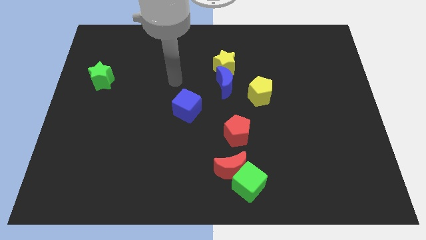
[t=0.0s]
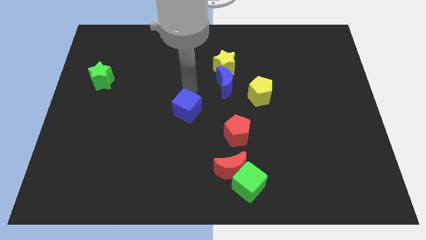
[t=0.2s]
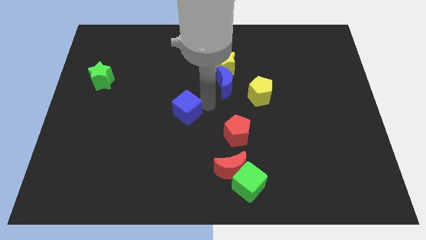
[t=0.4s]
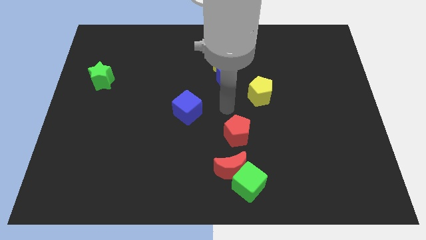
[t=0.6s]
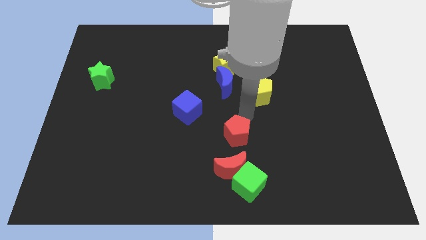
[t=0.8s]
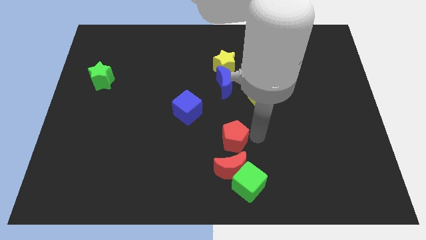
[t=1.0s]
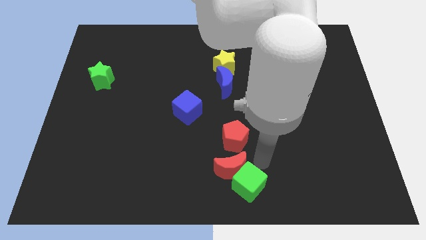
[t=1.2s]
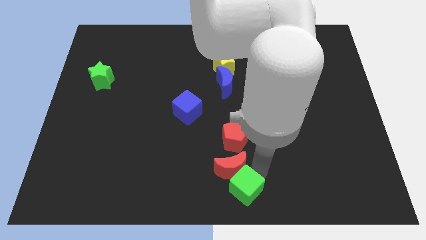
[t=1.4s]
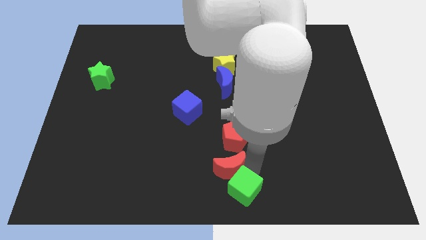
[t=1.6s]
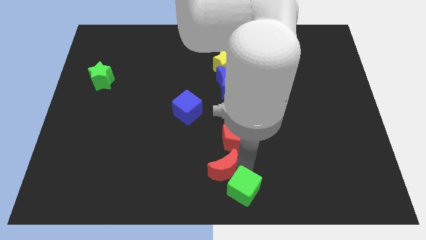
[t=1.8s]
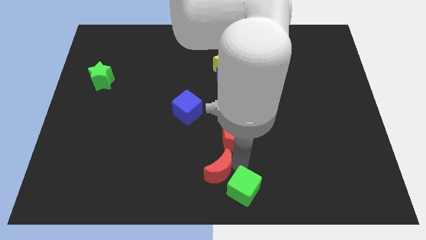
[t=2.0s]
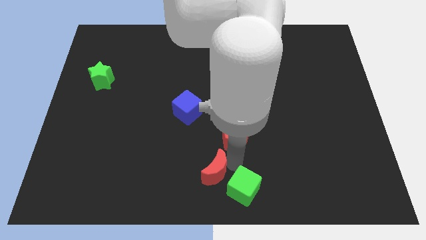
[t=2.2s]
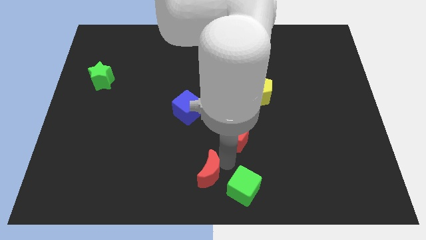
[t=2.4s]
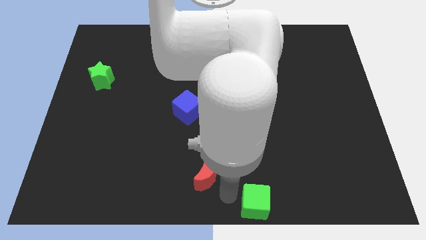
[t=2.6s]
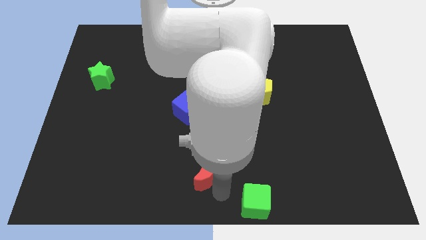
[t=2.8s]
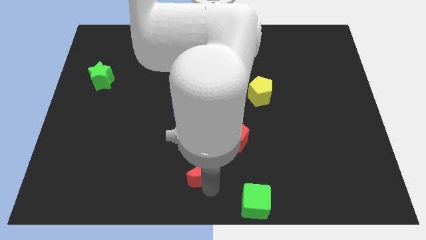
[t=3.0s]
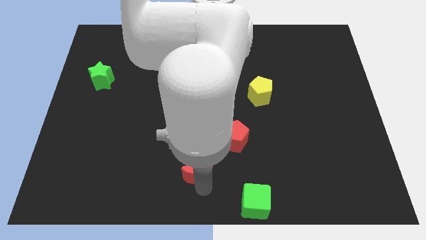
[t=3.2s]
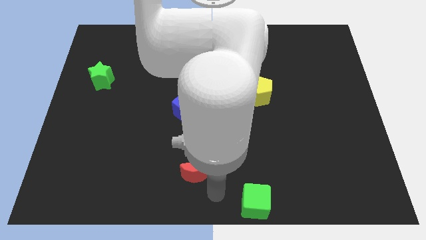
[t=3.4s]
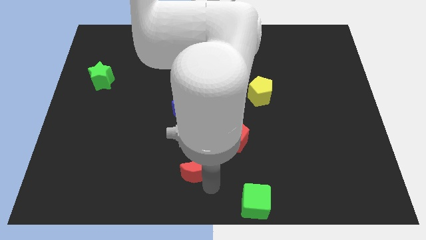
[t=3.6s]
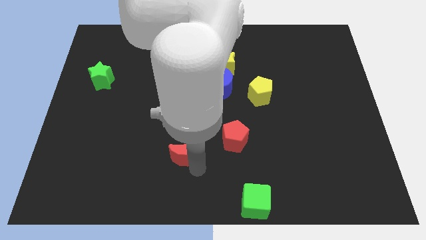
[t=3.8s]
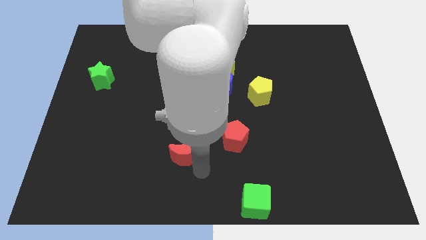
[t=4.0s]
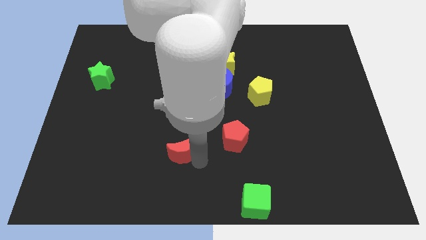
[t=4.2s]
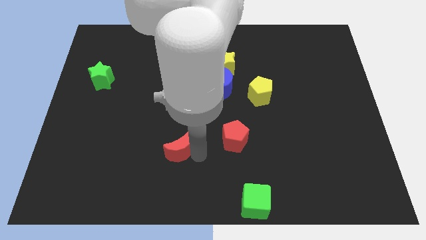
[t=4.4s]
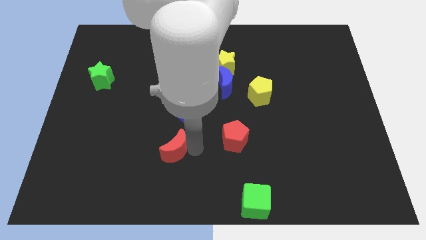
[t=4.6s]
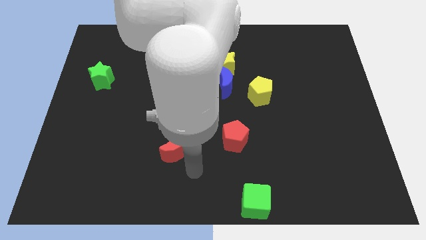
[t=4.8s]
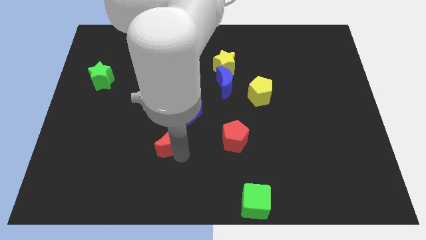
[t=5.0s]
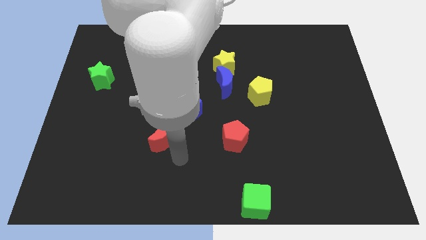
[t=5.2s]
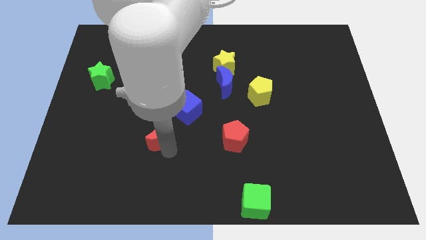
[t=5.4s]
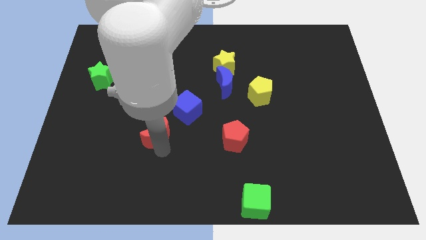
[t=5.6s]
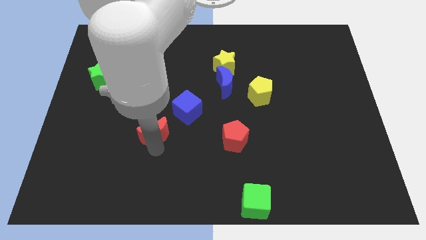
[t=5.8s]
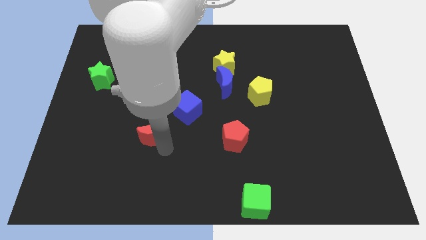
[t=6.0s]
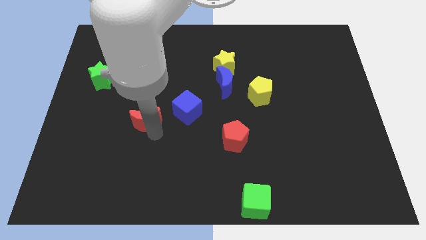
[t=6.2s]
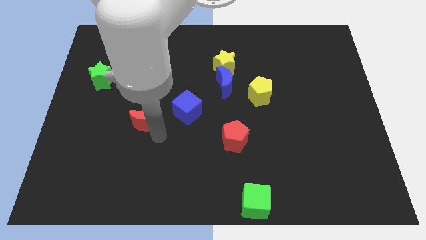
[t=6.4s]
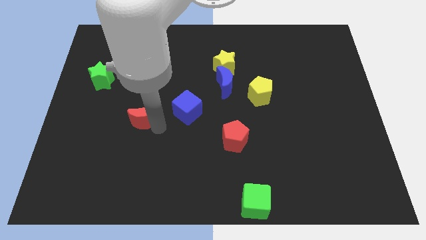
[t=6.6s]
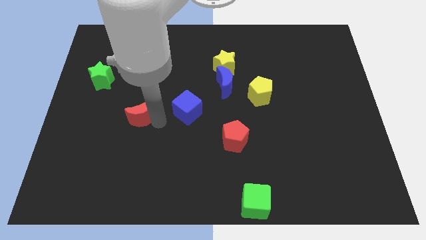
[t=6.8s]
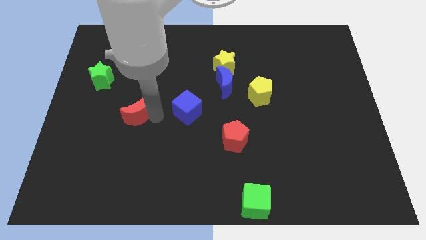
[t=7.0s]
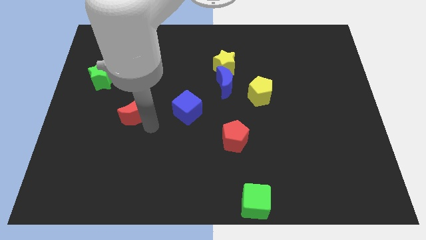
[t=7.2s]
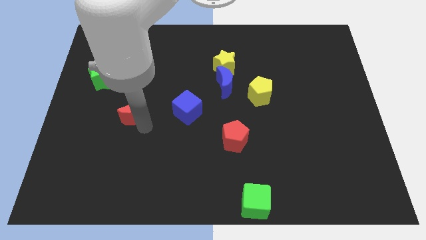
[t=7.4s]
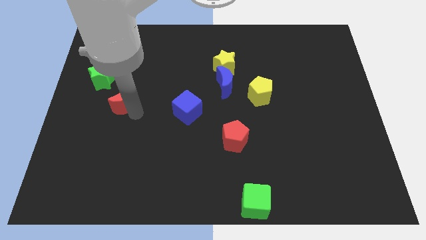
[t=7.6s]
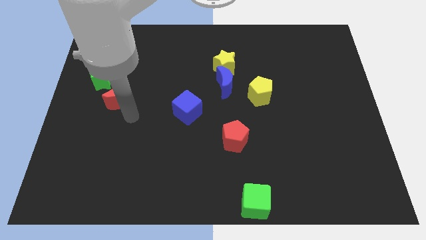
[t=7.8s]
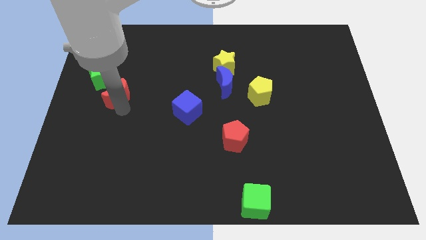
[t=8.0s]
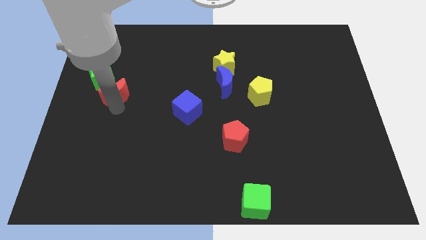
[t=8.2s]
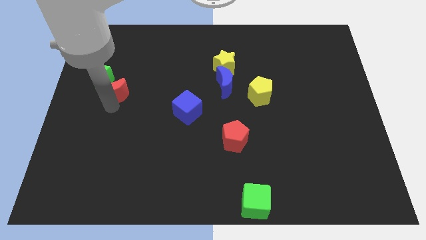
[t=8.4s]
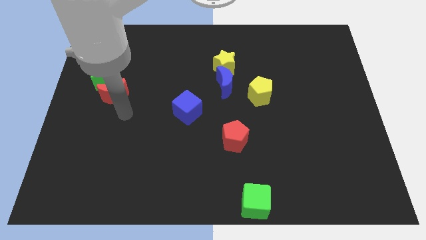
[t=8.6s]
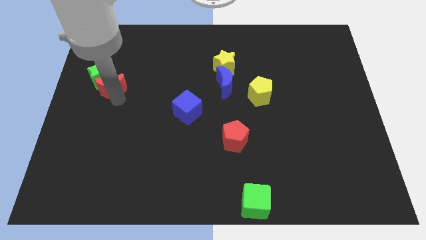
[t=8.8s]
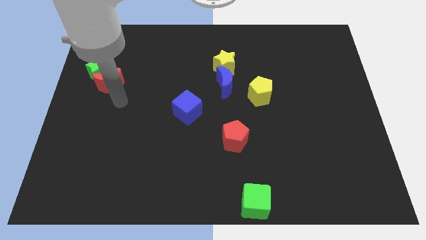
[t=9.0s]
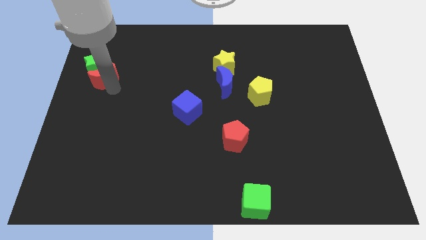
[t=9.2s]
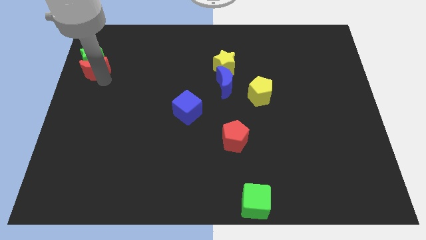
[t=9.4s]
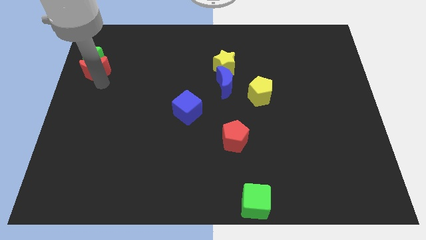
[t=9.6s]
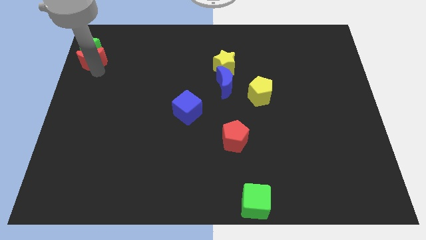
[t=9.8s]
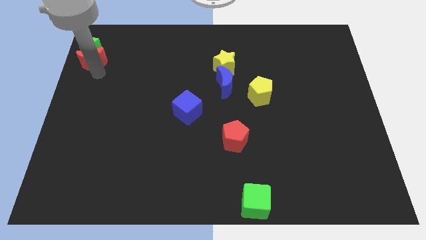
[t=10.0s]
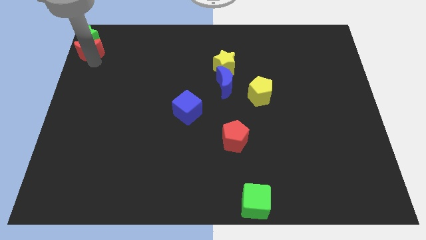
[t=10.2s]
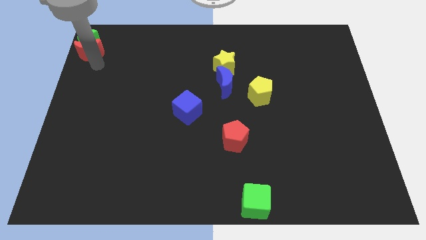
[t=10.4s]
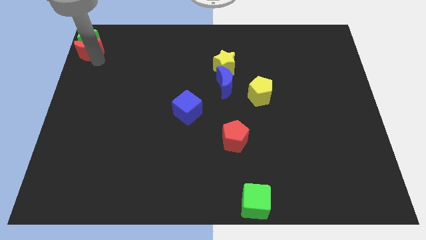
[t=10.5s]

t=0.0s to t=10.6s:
push the red moon to the top left corner
